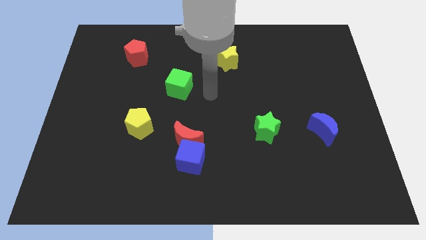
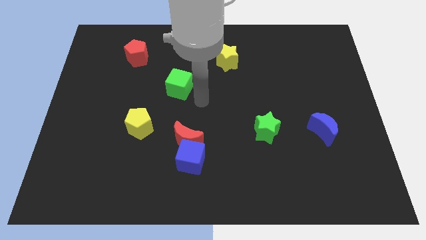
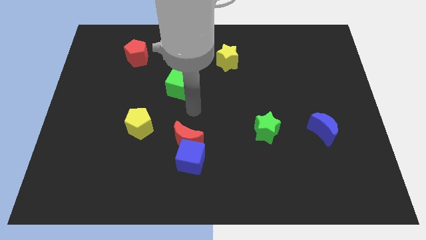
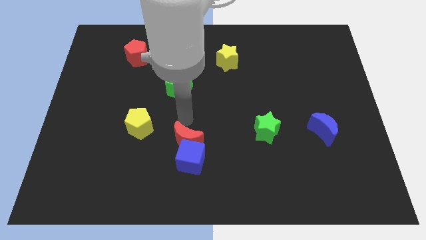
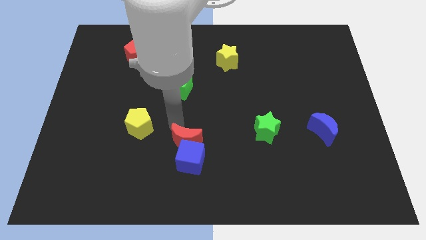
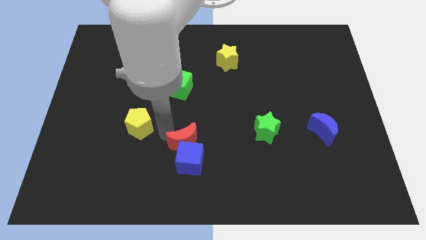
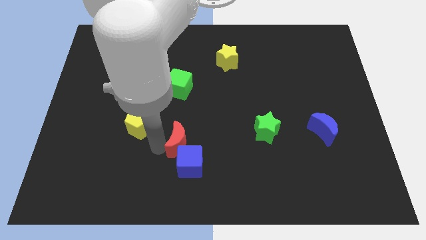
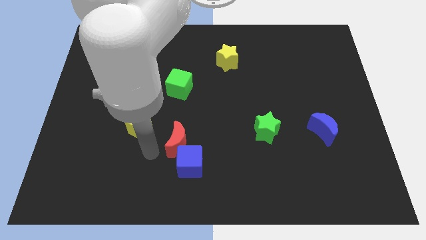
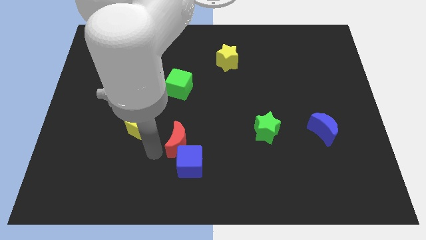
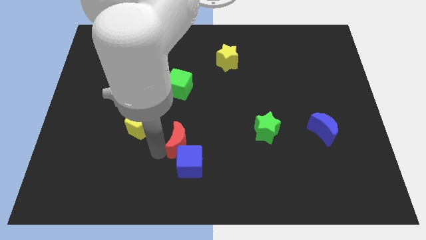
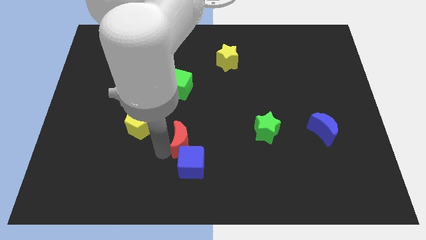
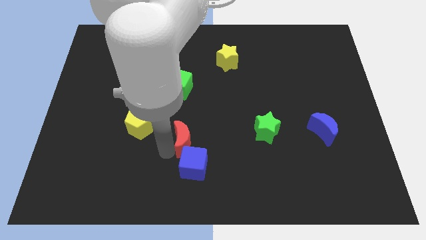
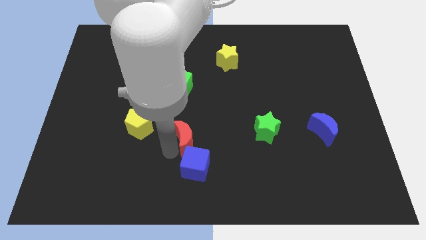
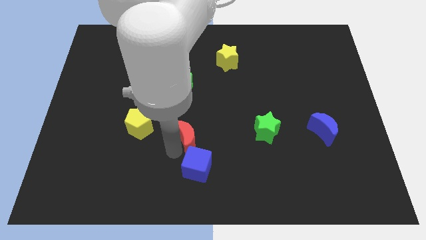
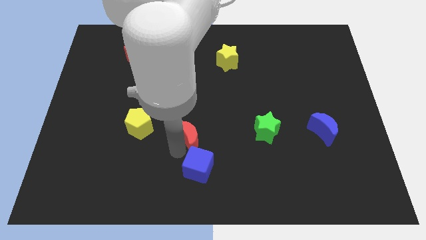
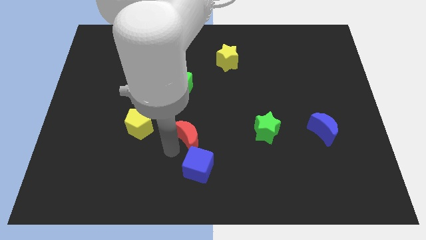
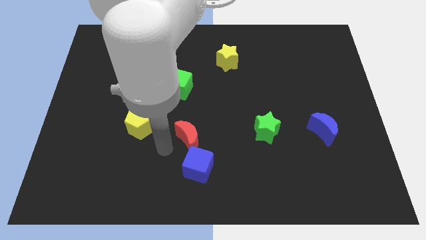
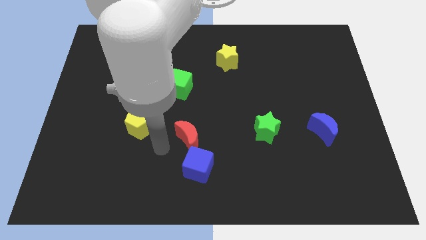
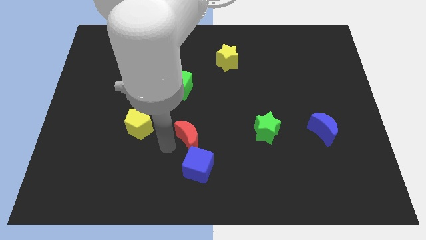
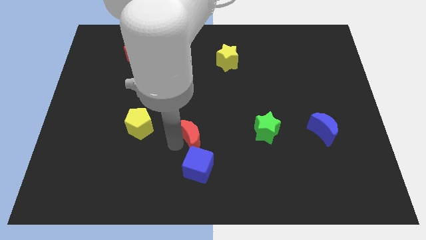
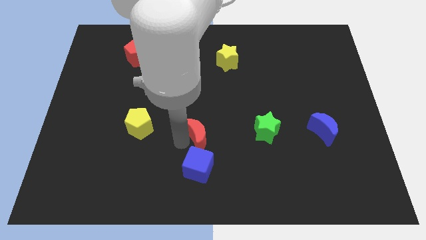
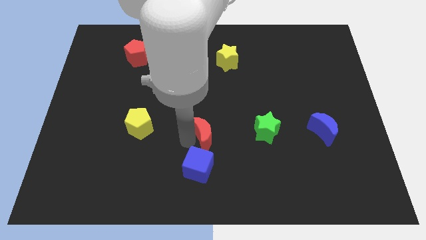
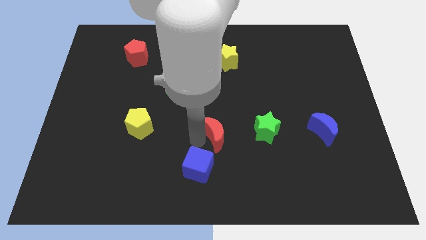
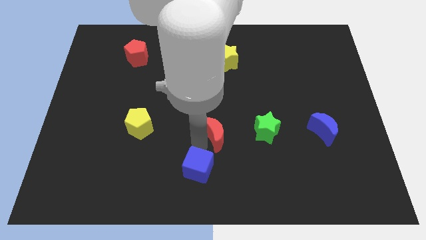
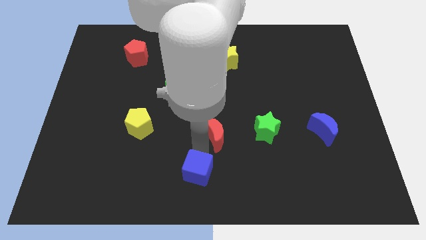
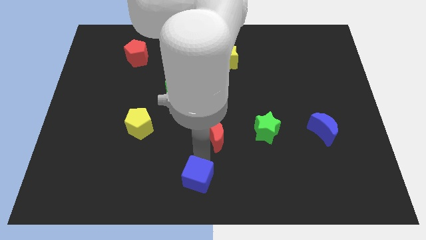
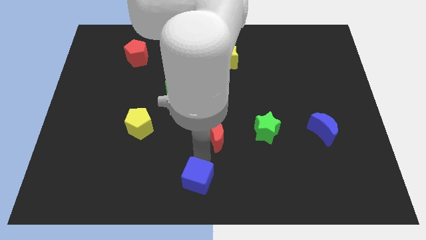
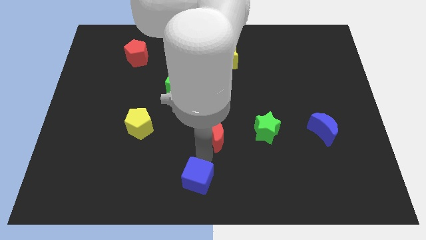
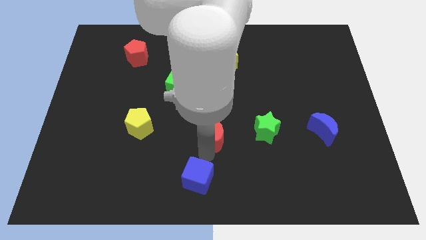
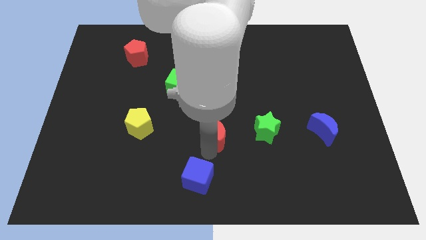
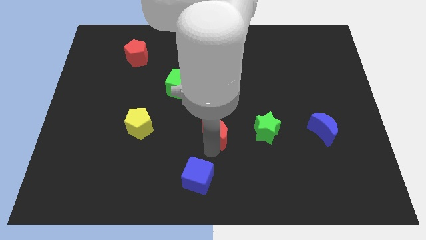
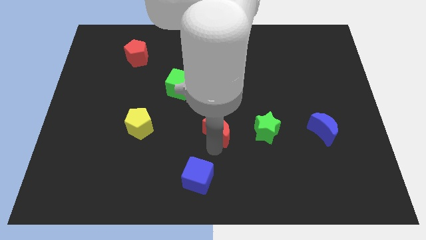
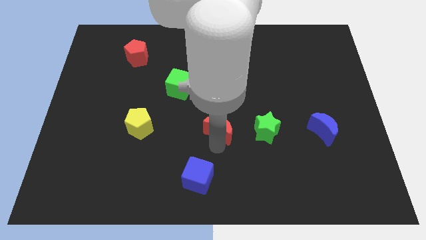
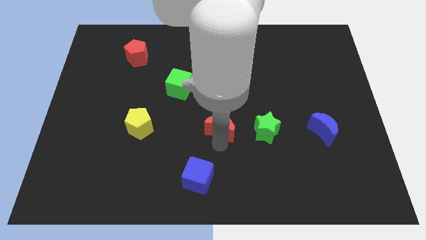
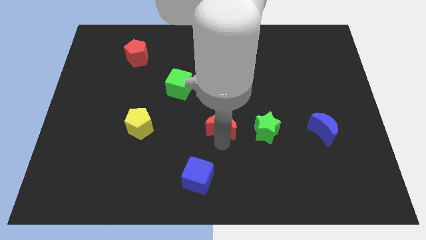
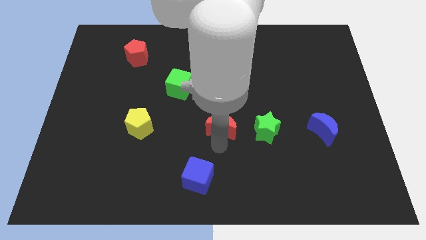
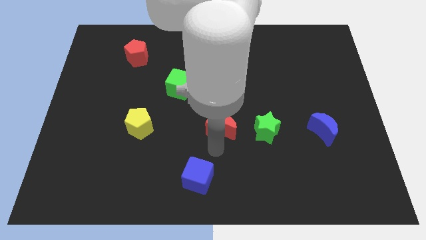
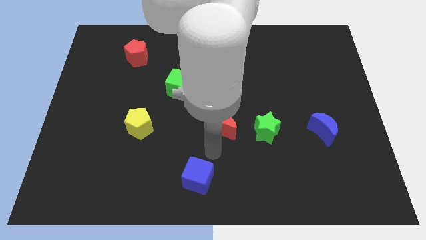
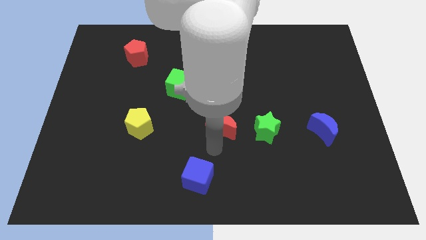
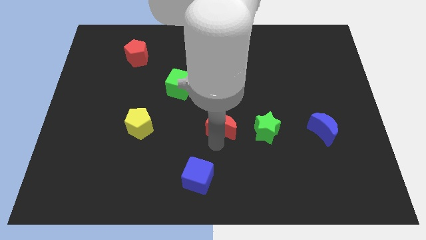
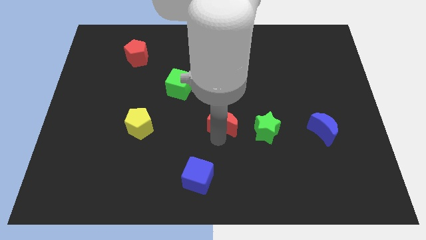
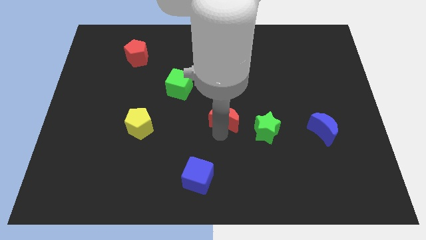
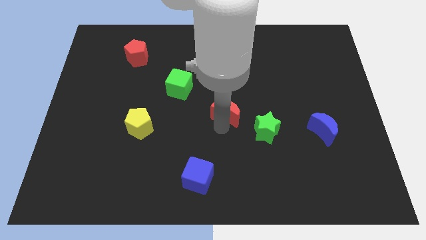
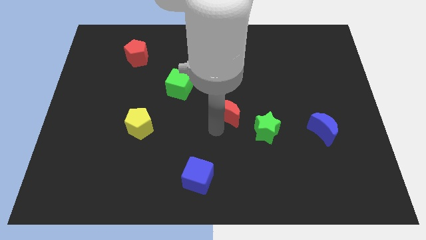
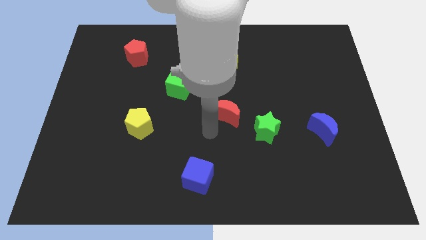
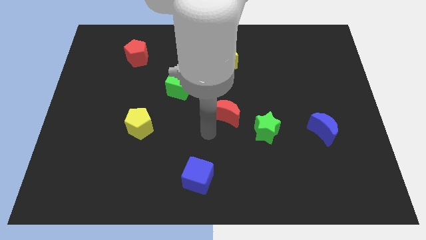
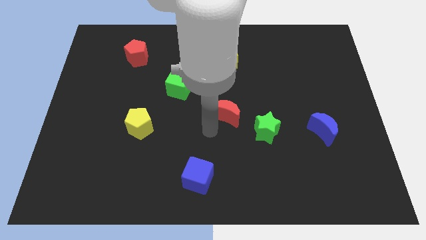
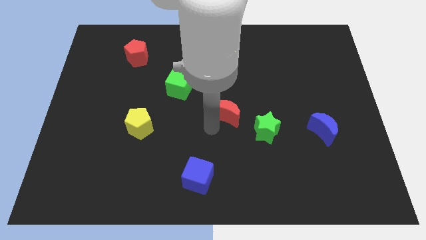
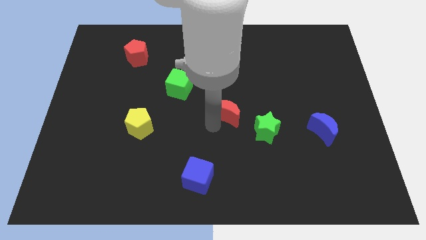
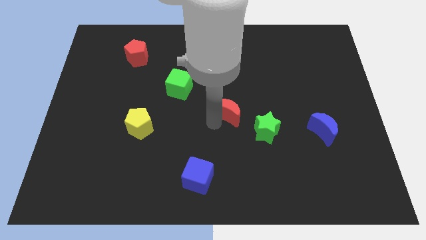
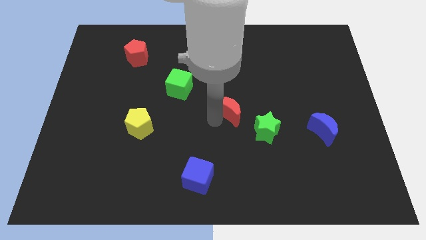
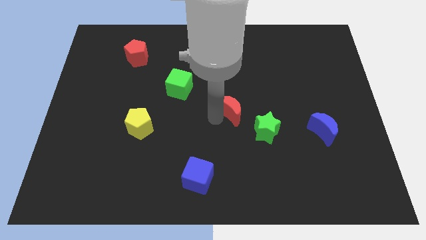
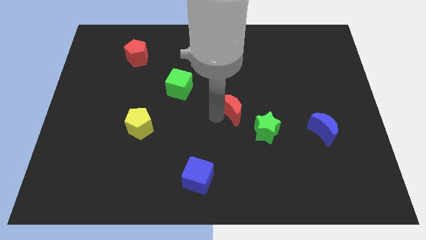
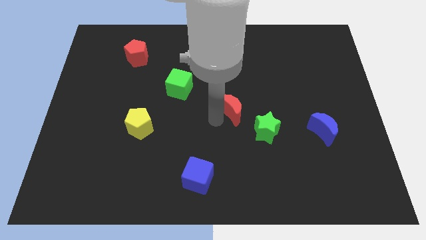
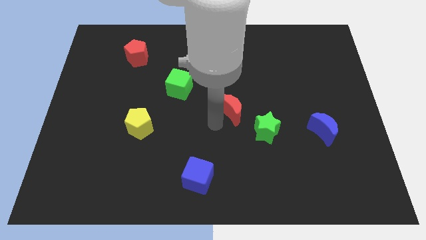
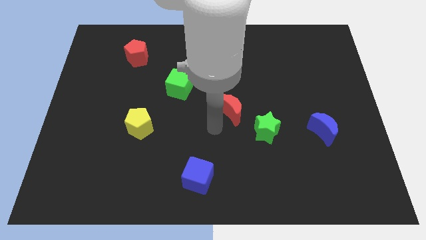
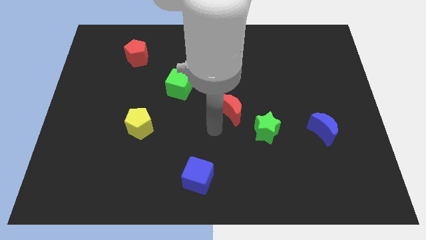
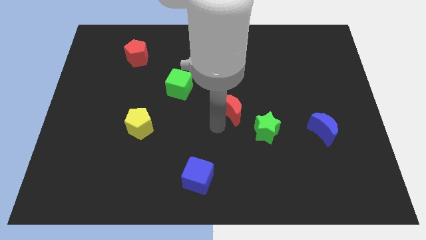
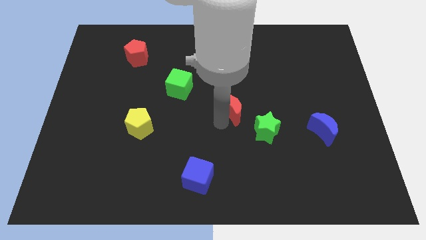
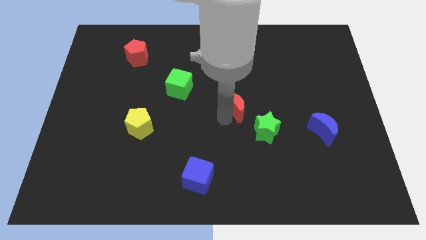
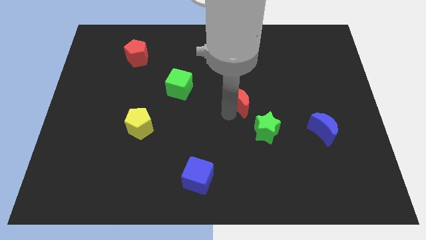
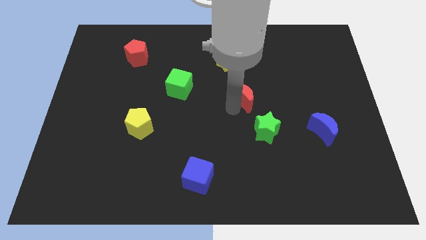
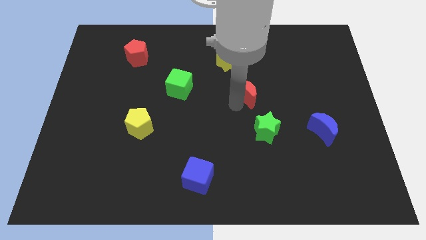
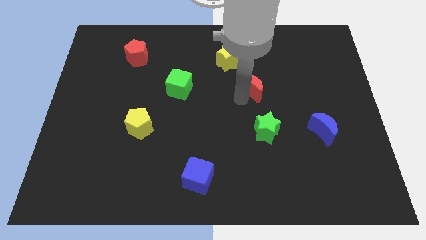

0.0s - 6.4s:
push the red moon upwards and to the right

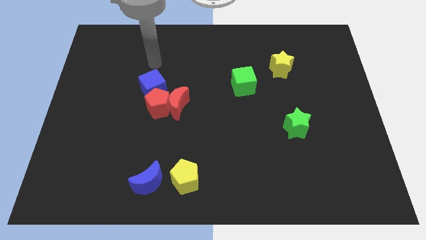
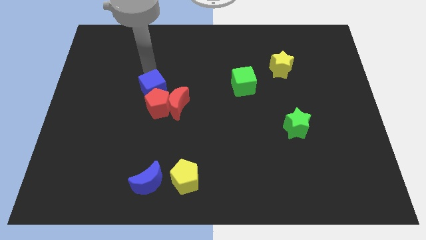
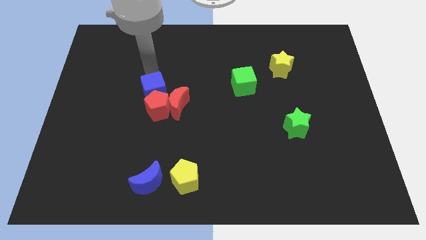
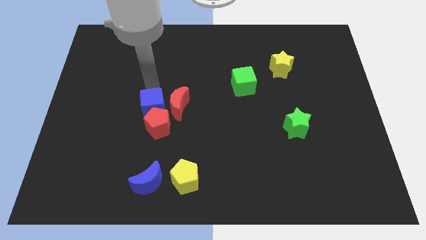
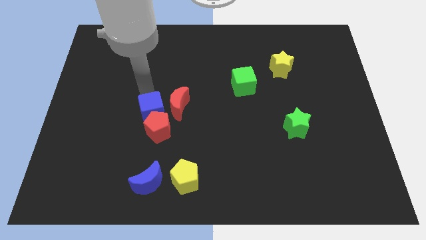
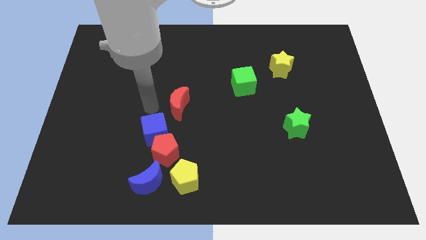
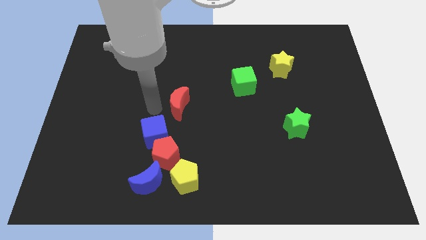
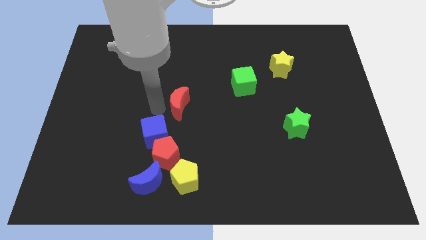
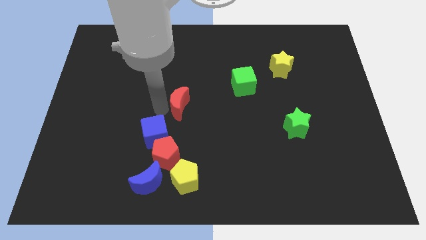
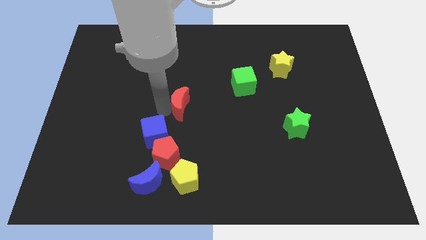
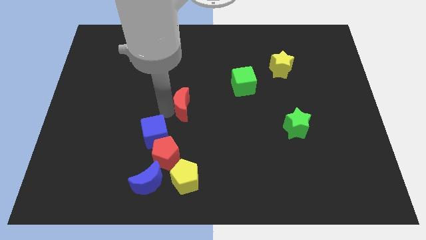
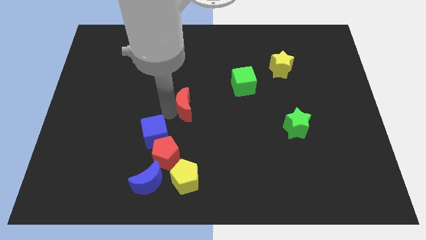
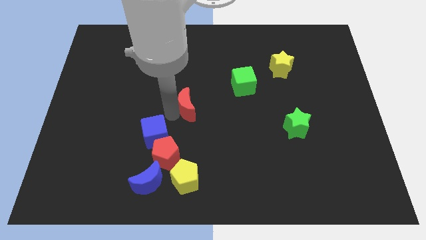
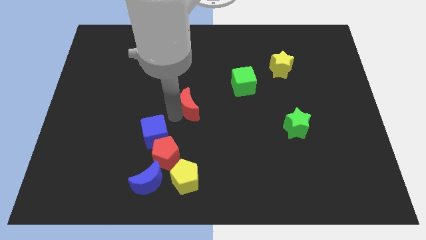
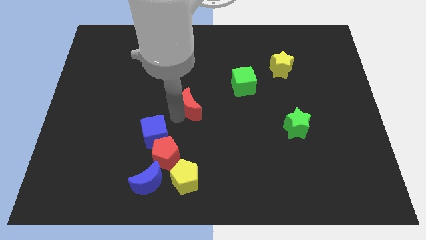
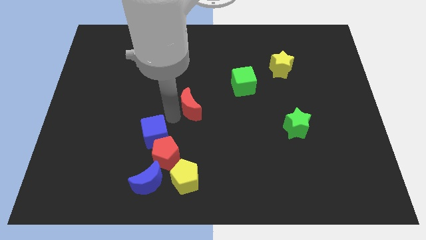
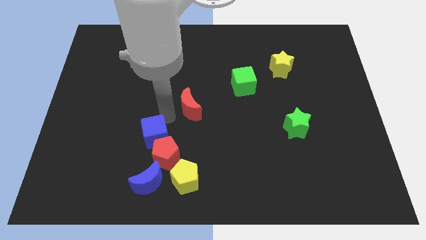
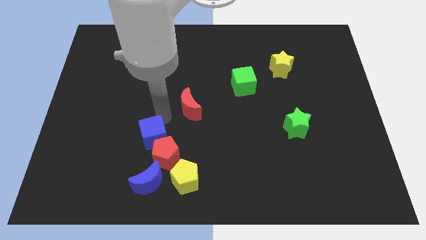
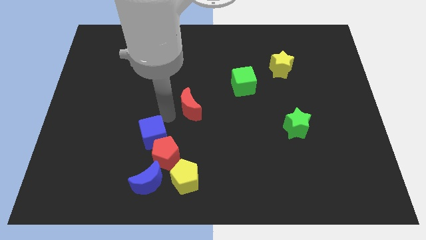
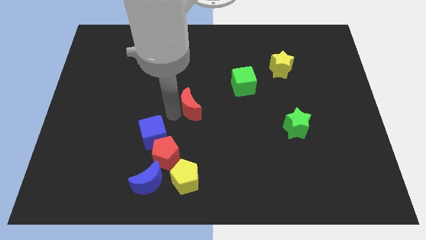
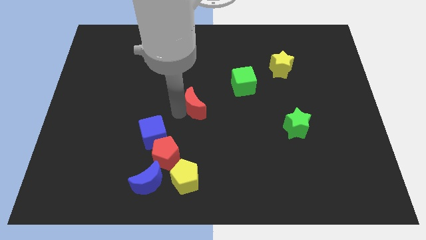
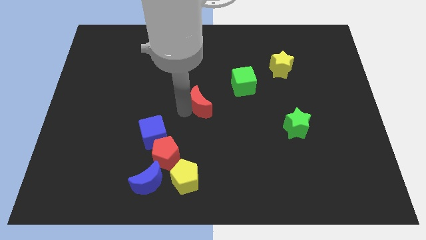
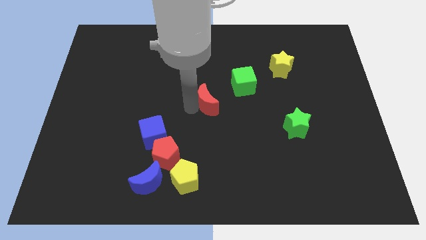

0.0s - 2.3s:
slightly move the red moon to the right
